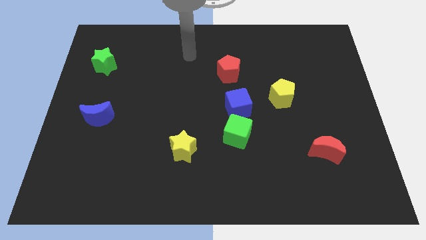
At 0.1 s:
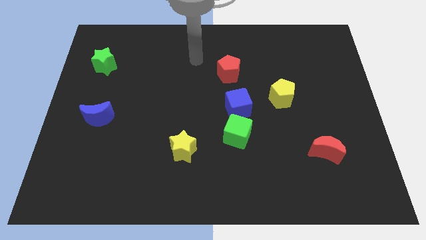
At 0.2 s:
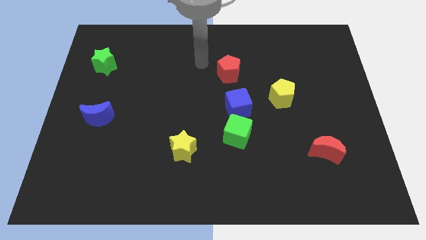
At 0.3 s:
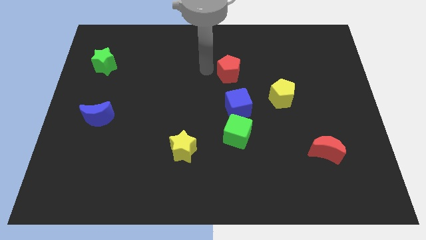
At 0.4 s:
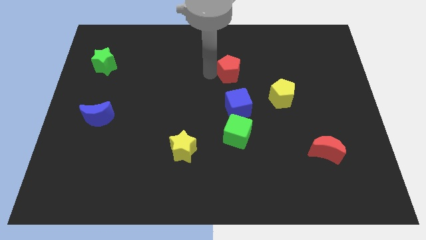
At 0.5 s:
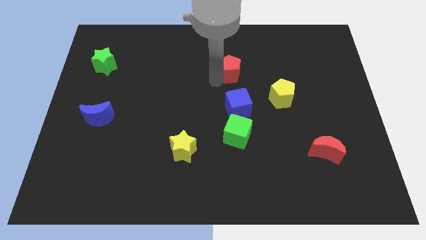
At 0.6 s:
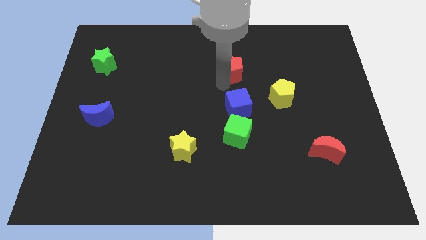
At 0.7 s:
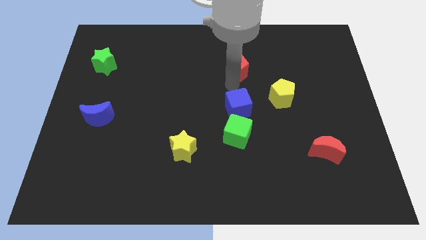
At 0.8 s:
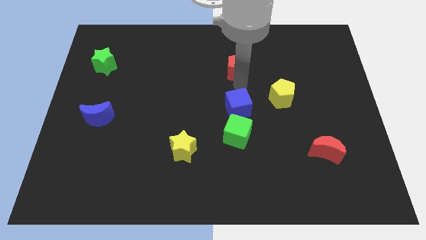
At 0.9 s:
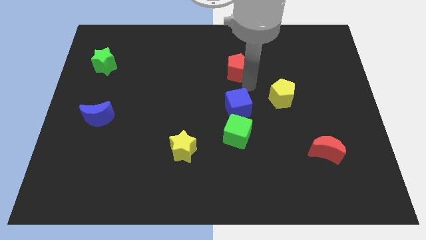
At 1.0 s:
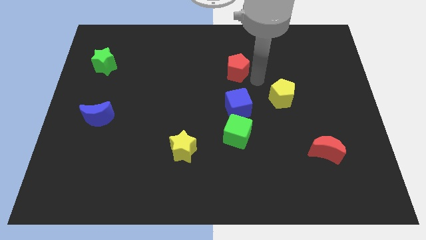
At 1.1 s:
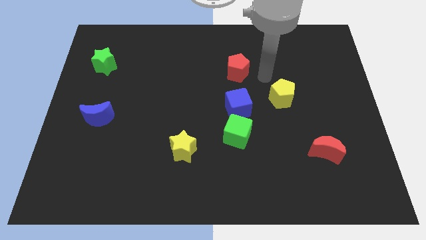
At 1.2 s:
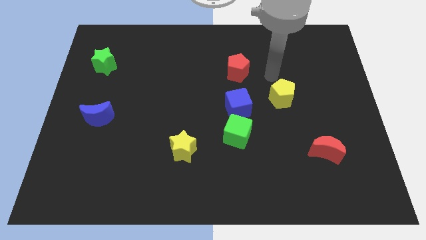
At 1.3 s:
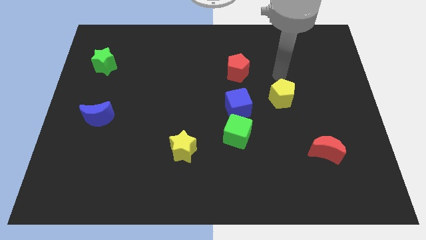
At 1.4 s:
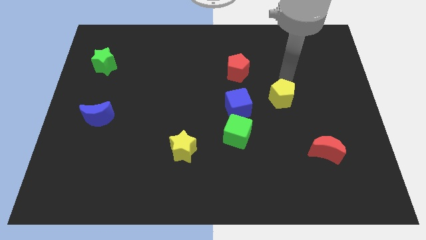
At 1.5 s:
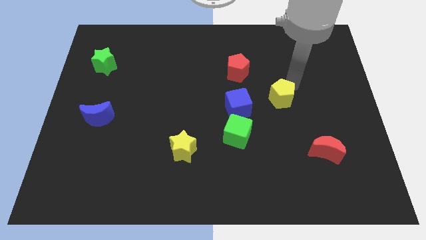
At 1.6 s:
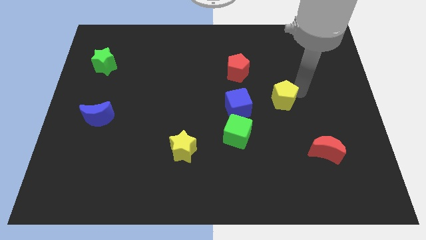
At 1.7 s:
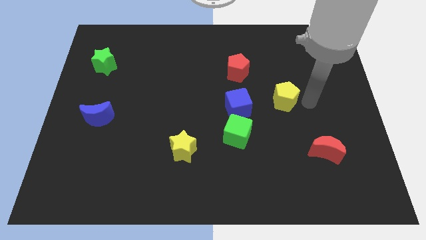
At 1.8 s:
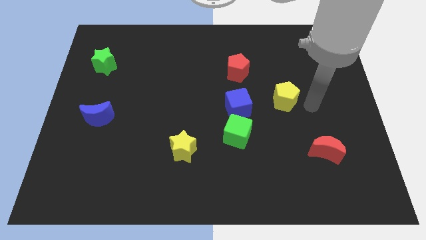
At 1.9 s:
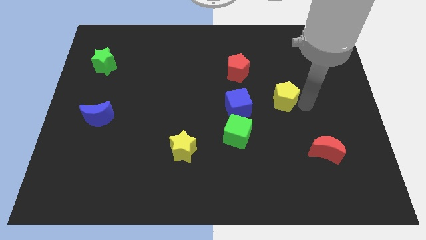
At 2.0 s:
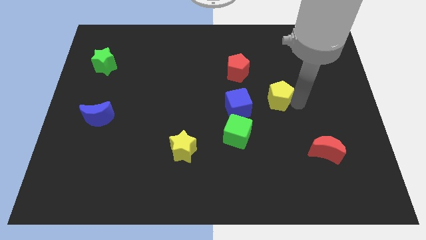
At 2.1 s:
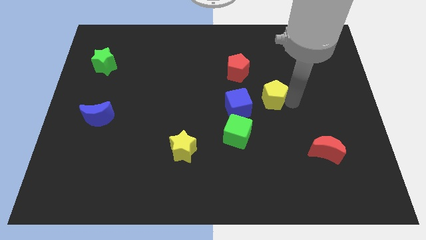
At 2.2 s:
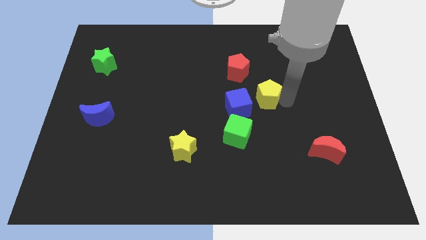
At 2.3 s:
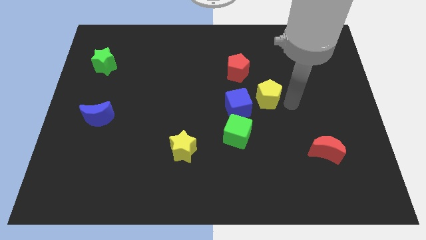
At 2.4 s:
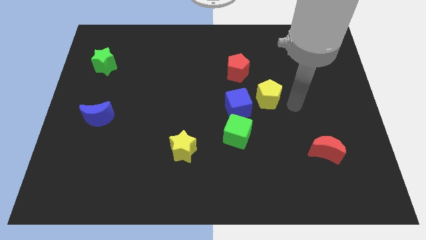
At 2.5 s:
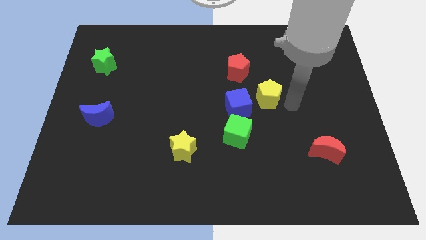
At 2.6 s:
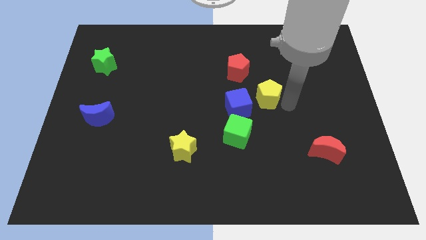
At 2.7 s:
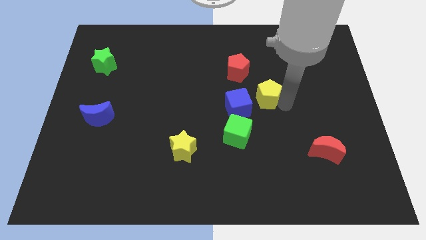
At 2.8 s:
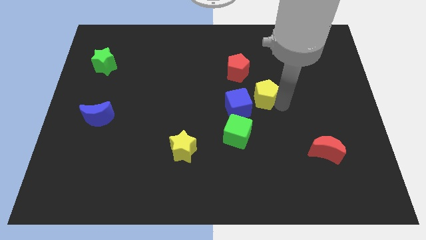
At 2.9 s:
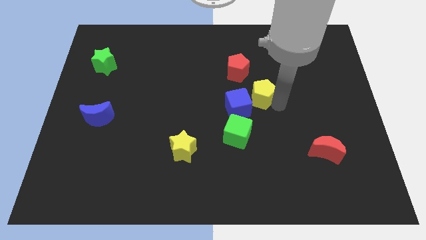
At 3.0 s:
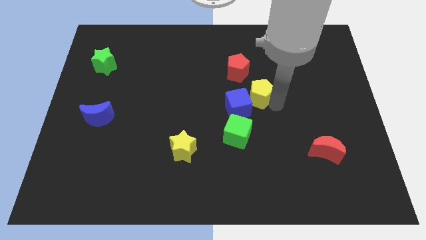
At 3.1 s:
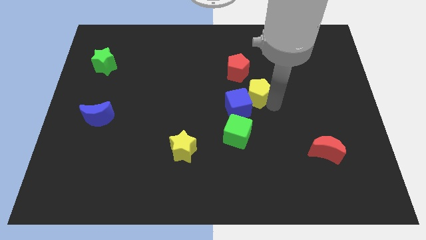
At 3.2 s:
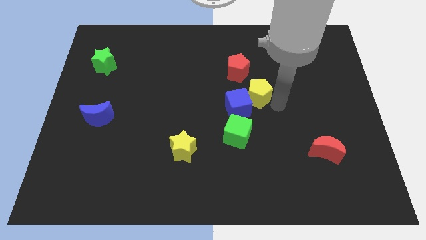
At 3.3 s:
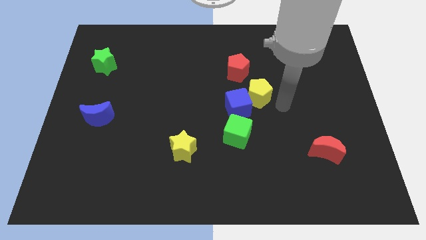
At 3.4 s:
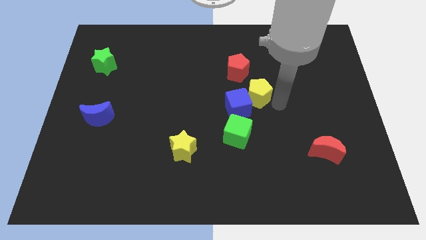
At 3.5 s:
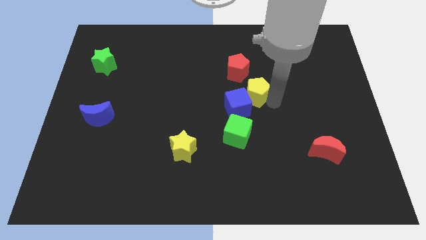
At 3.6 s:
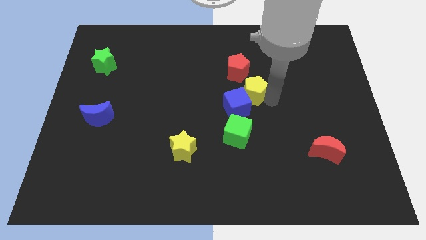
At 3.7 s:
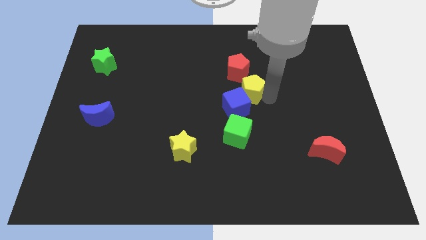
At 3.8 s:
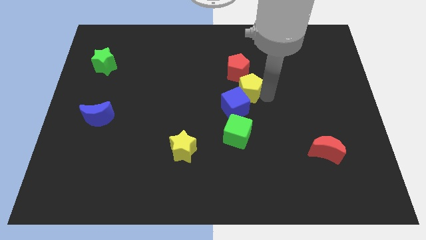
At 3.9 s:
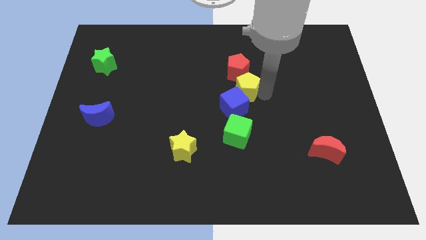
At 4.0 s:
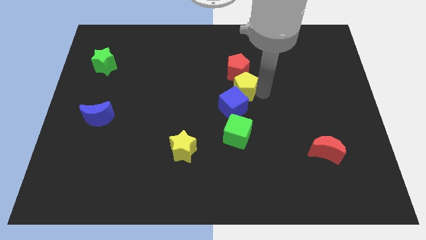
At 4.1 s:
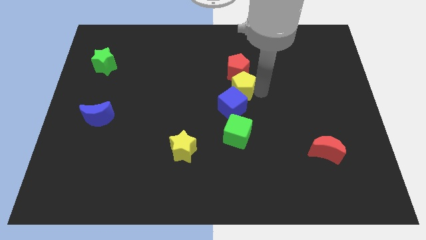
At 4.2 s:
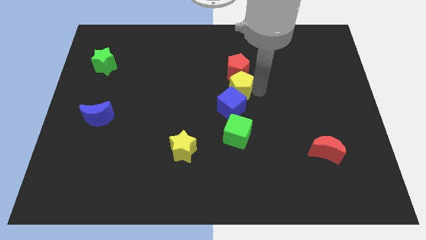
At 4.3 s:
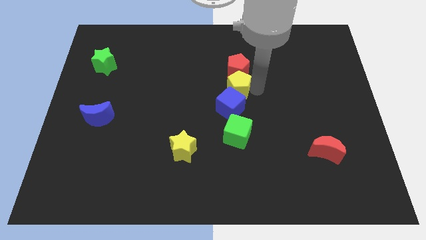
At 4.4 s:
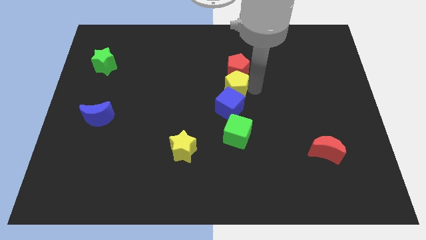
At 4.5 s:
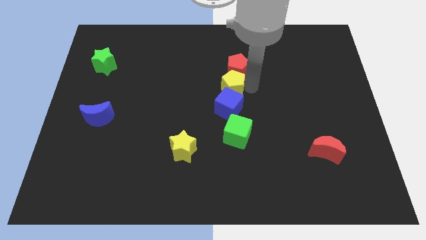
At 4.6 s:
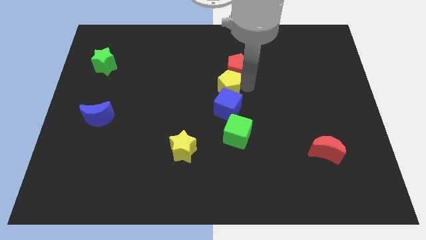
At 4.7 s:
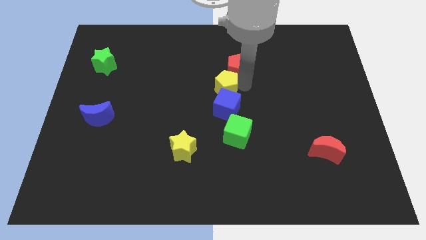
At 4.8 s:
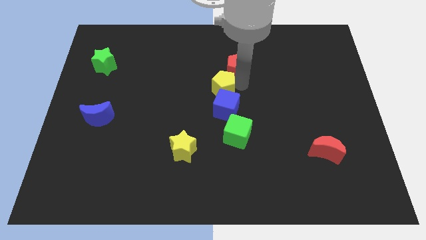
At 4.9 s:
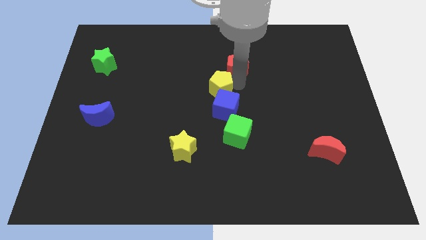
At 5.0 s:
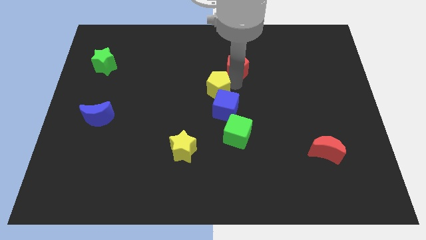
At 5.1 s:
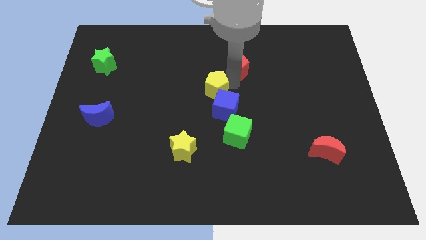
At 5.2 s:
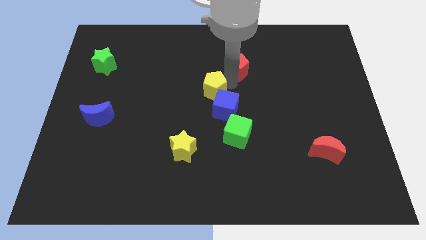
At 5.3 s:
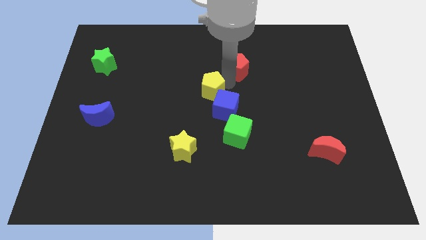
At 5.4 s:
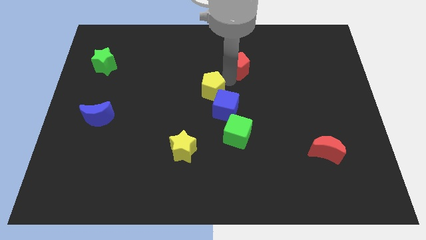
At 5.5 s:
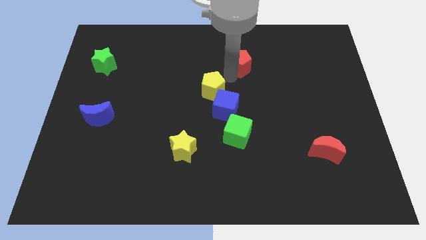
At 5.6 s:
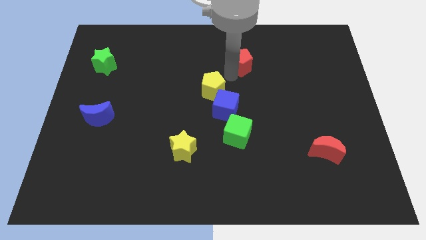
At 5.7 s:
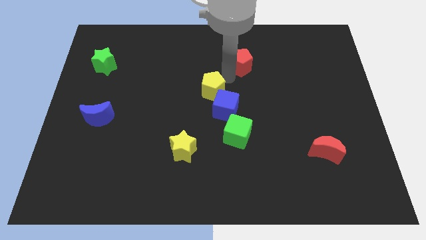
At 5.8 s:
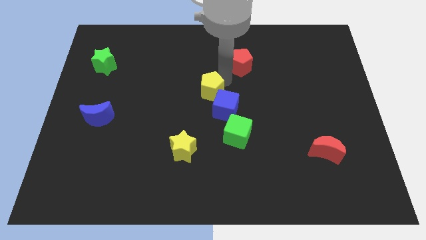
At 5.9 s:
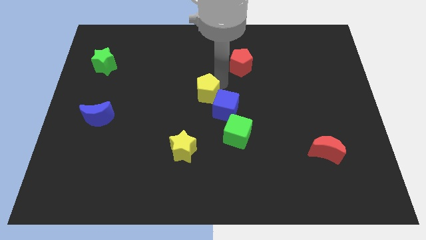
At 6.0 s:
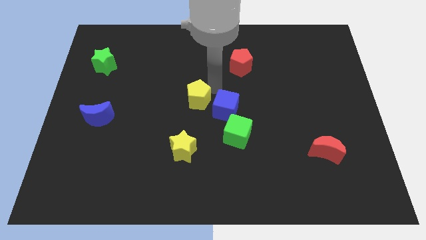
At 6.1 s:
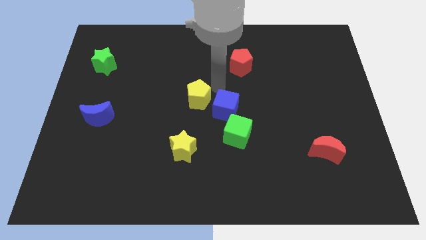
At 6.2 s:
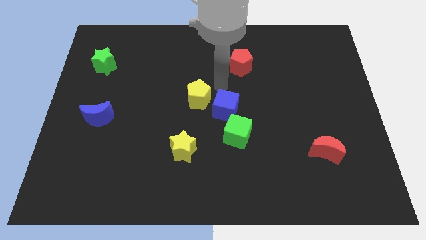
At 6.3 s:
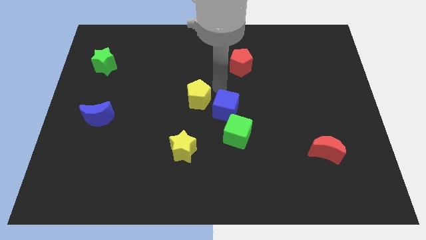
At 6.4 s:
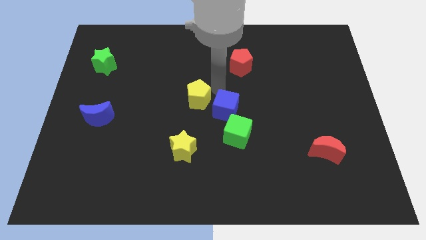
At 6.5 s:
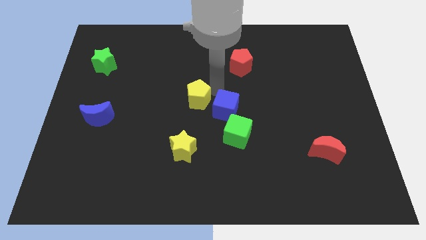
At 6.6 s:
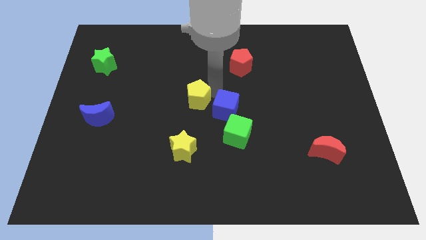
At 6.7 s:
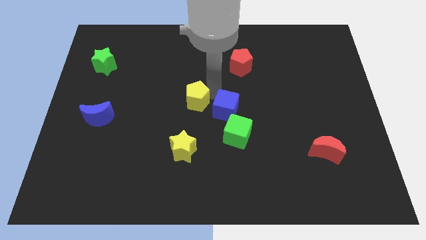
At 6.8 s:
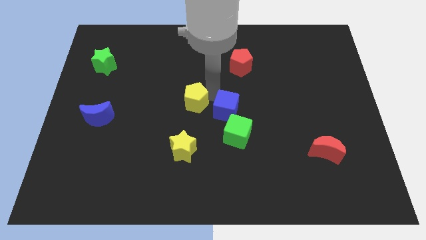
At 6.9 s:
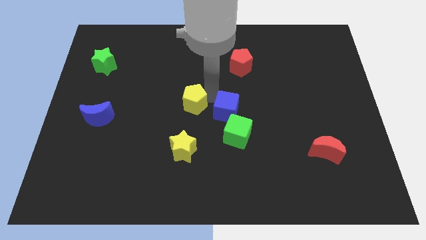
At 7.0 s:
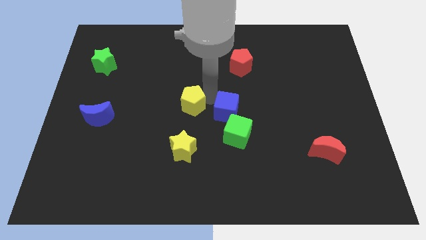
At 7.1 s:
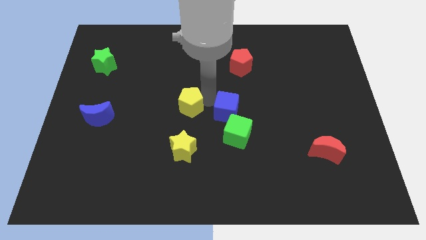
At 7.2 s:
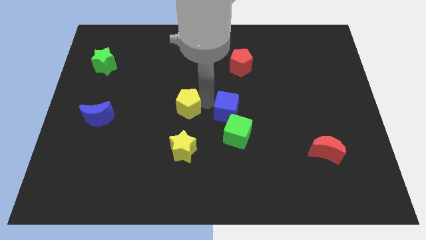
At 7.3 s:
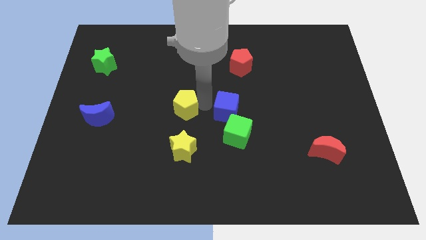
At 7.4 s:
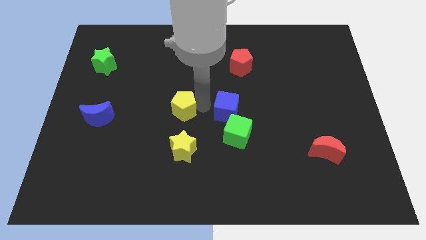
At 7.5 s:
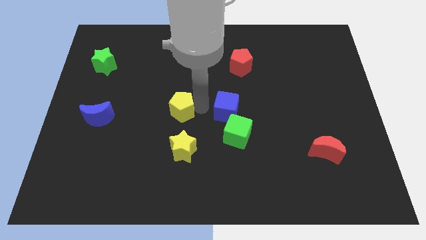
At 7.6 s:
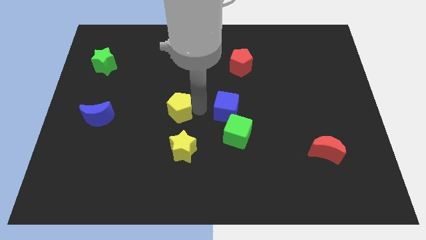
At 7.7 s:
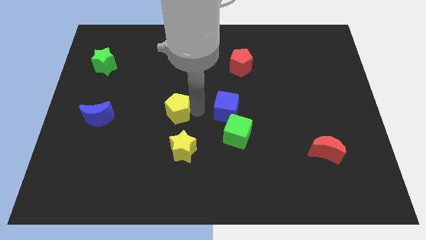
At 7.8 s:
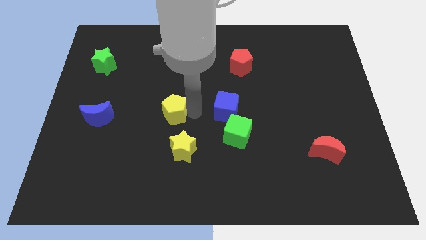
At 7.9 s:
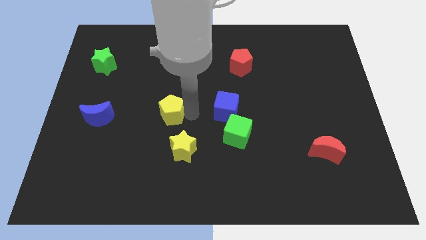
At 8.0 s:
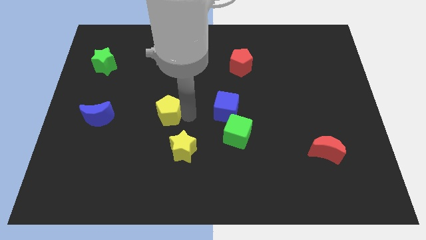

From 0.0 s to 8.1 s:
move the yellow pentagon to the right side of the blue moon
